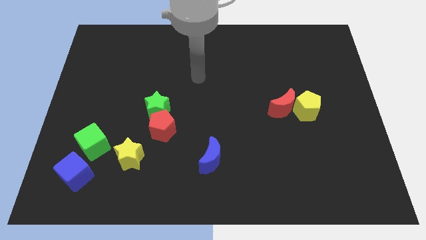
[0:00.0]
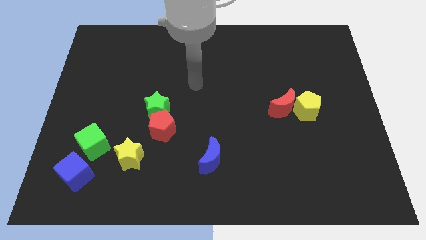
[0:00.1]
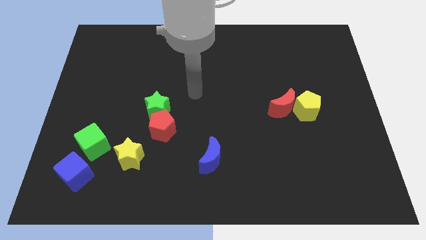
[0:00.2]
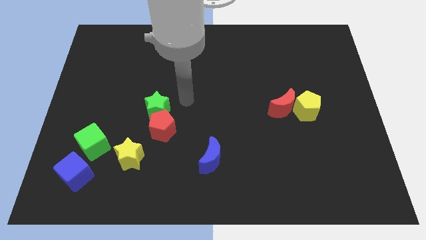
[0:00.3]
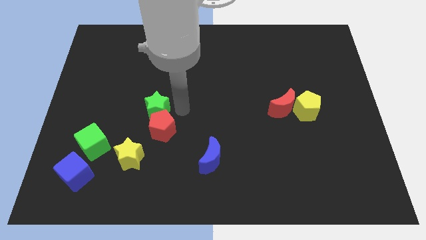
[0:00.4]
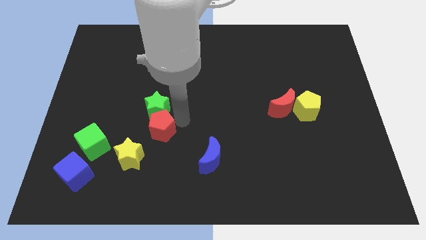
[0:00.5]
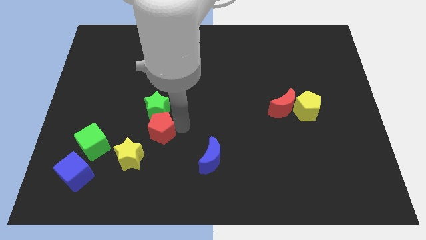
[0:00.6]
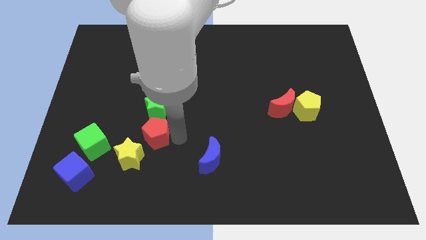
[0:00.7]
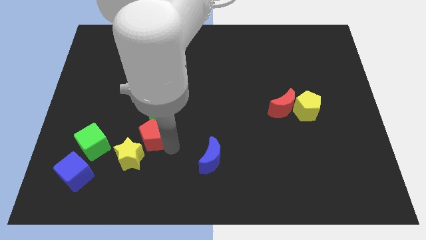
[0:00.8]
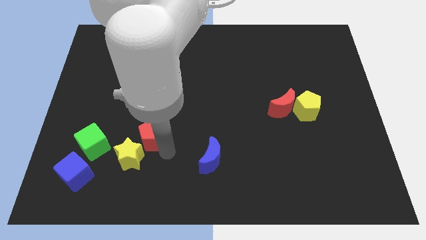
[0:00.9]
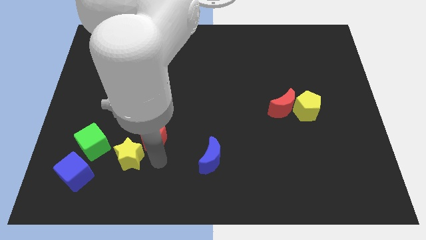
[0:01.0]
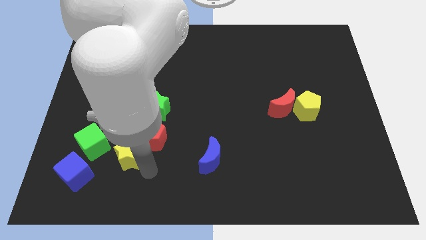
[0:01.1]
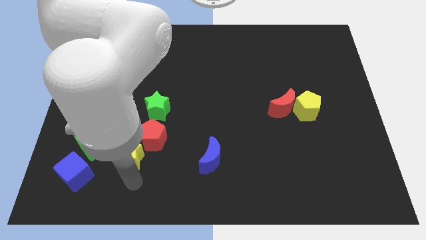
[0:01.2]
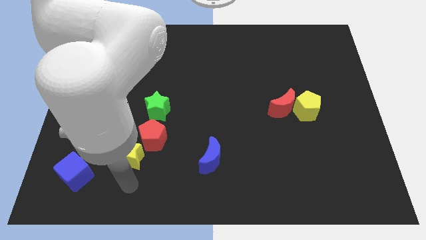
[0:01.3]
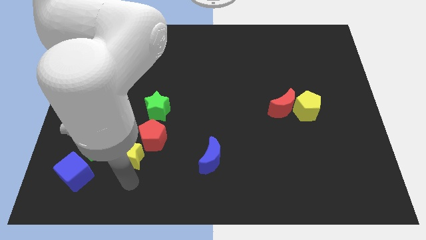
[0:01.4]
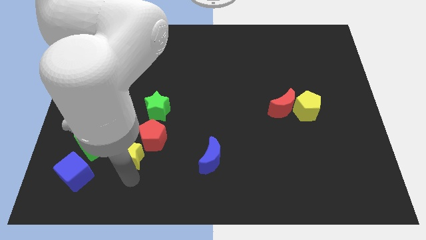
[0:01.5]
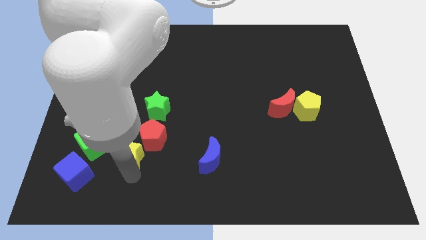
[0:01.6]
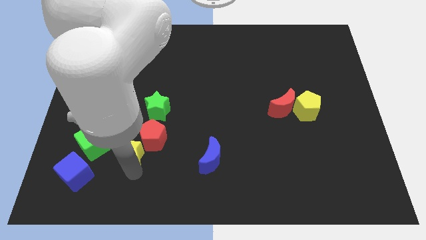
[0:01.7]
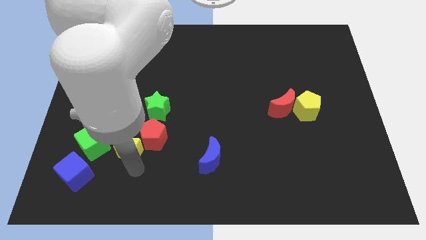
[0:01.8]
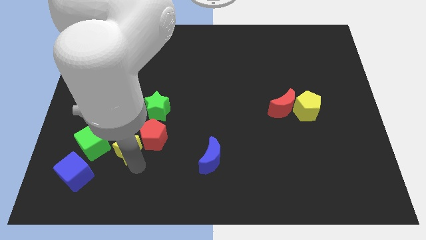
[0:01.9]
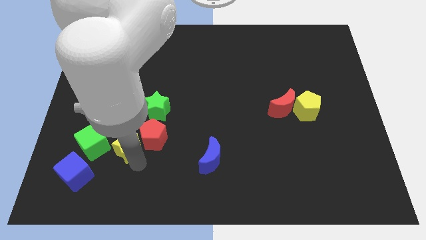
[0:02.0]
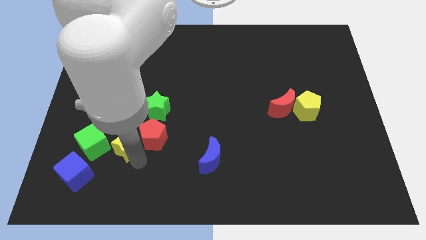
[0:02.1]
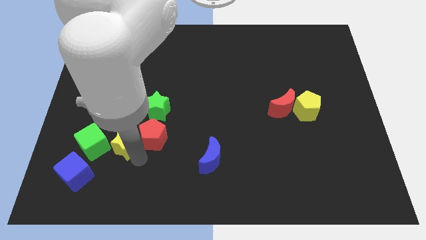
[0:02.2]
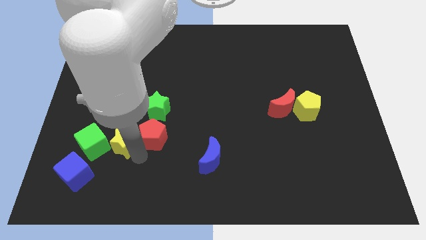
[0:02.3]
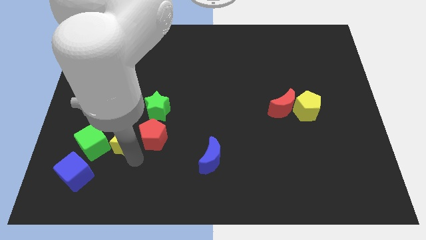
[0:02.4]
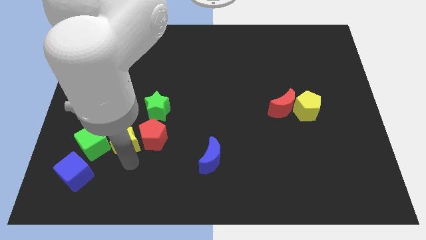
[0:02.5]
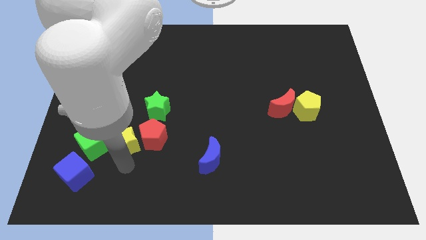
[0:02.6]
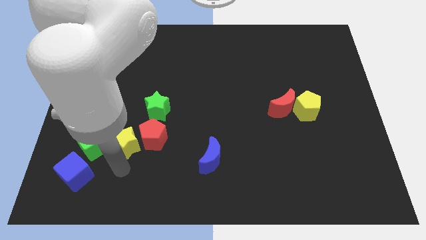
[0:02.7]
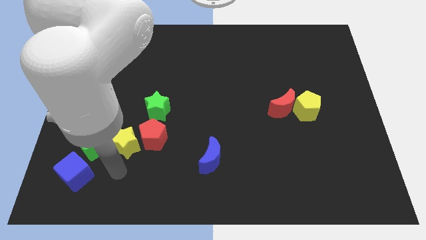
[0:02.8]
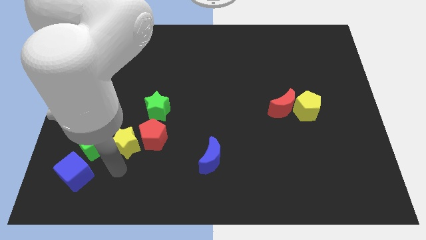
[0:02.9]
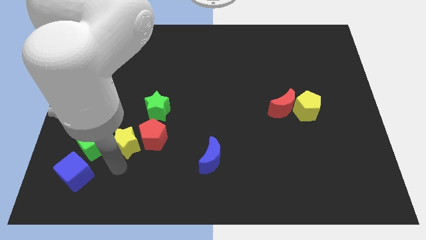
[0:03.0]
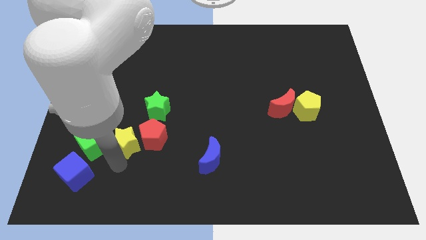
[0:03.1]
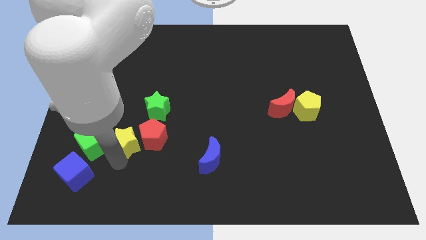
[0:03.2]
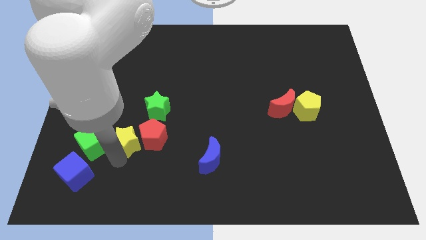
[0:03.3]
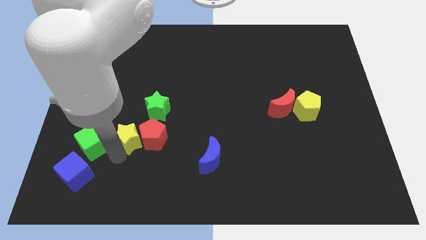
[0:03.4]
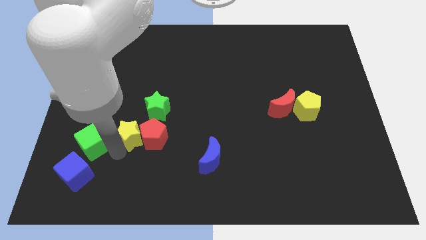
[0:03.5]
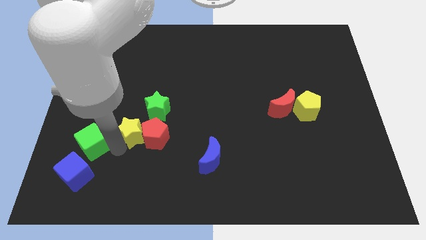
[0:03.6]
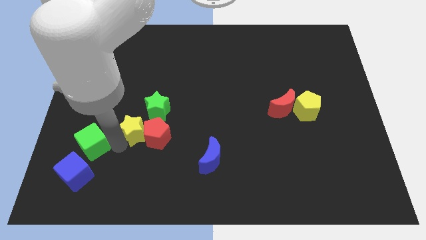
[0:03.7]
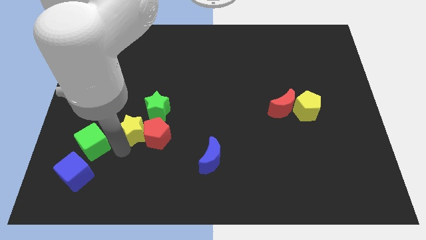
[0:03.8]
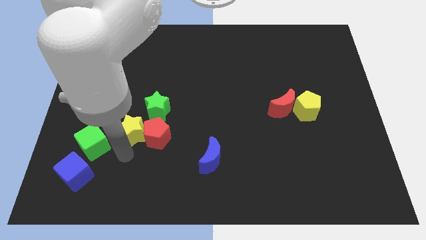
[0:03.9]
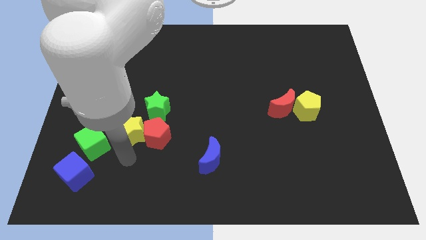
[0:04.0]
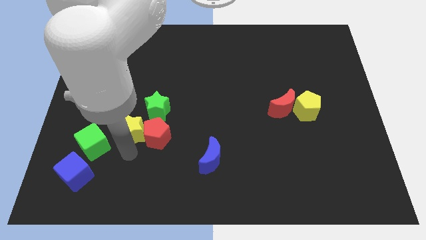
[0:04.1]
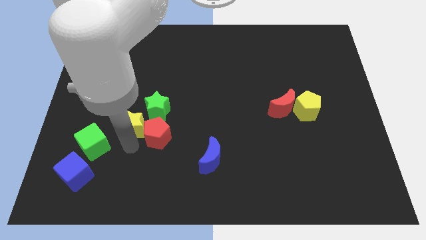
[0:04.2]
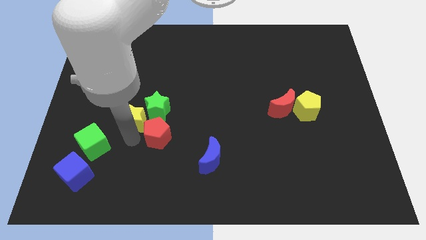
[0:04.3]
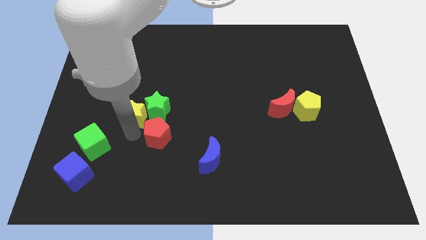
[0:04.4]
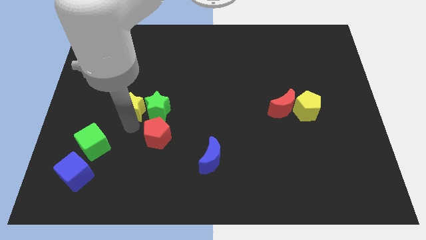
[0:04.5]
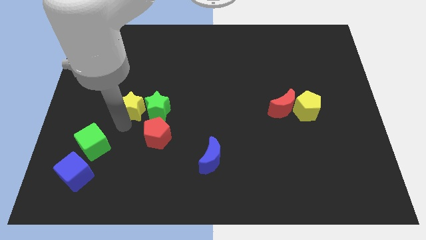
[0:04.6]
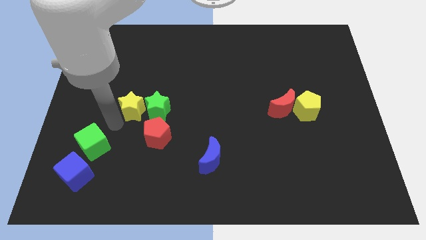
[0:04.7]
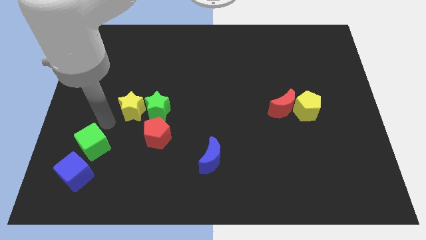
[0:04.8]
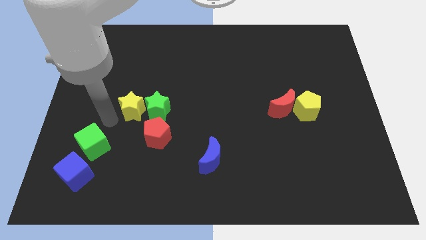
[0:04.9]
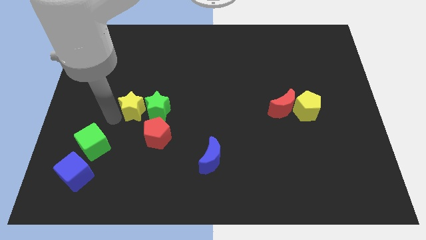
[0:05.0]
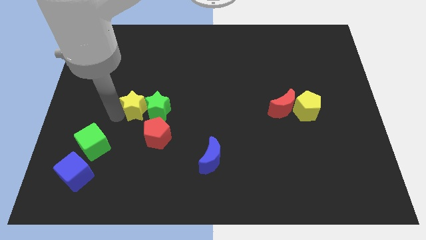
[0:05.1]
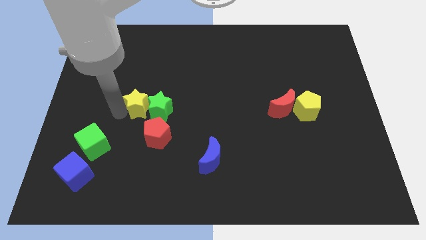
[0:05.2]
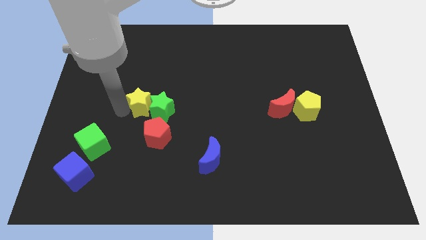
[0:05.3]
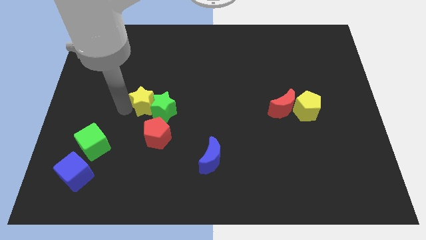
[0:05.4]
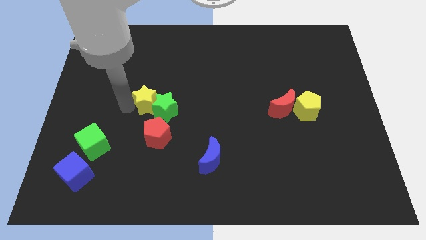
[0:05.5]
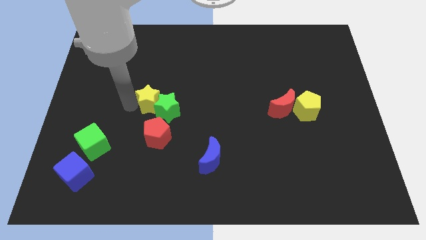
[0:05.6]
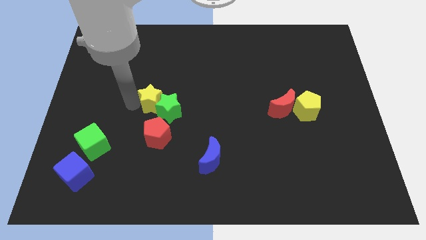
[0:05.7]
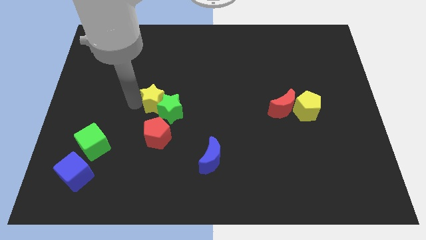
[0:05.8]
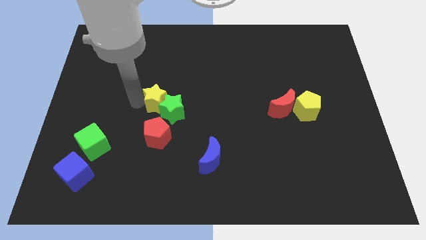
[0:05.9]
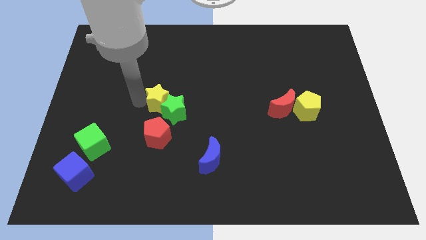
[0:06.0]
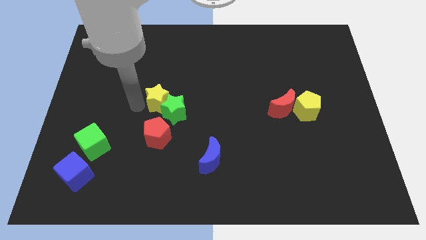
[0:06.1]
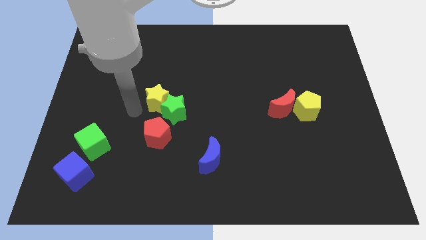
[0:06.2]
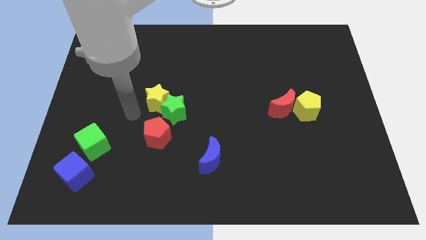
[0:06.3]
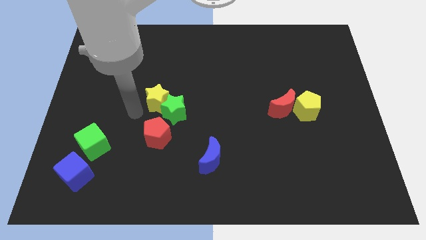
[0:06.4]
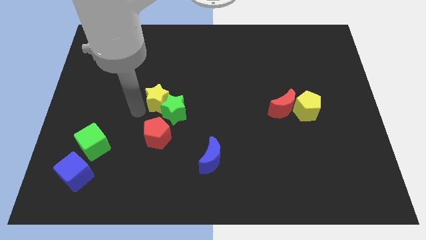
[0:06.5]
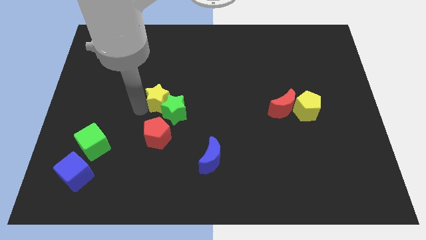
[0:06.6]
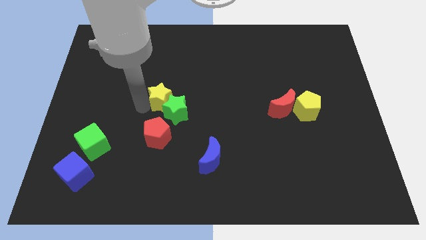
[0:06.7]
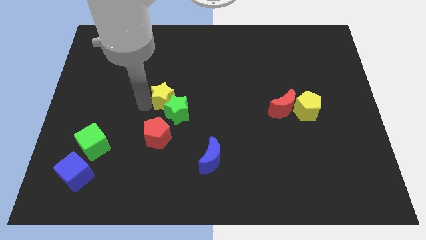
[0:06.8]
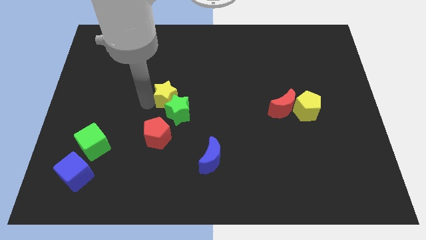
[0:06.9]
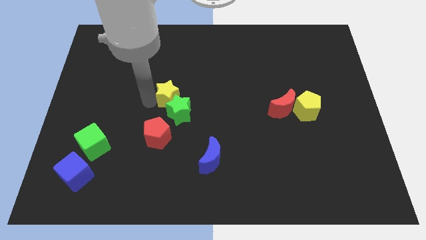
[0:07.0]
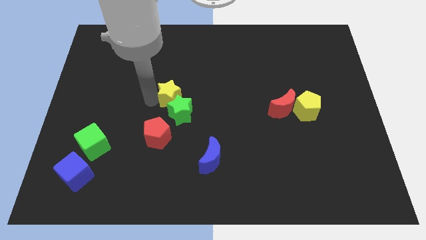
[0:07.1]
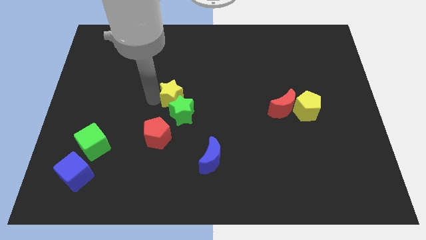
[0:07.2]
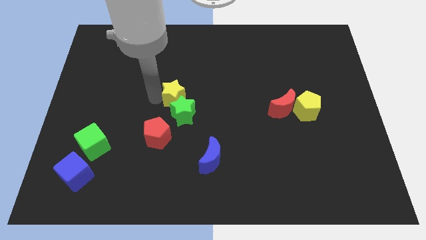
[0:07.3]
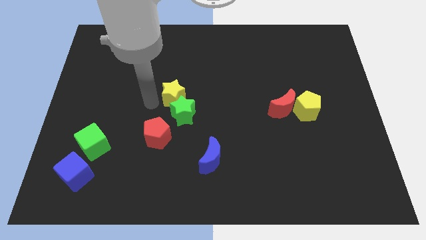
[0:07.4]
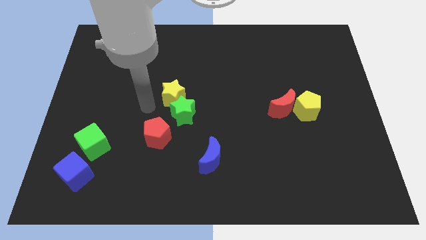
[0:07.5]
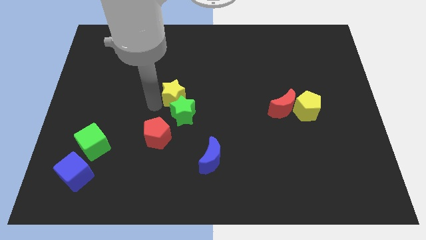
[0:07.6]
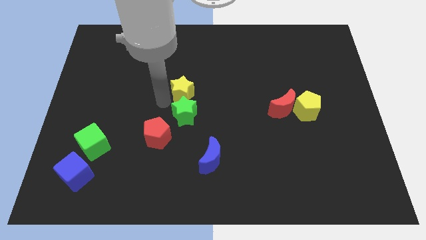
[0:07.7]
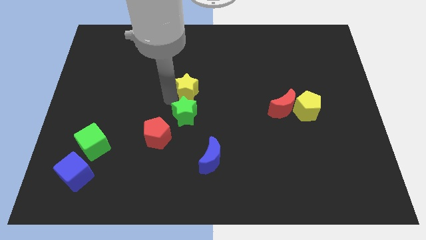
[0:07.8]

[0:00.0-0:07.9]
move the yellow star up and then right

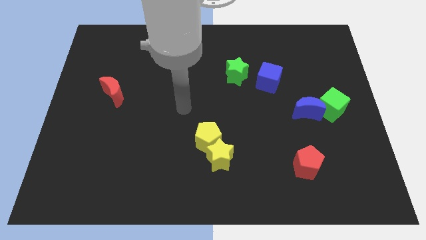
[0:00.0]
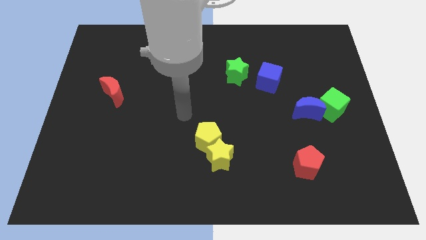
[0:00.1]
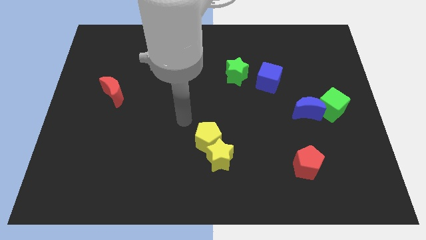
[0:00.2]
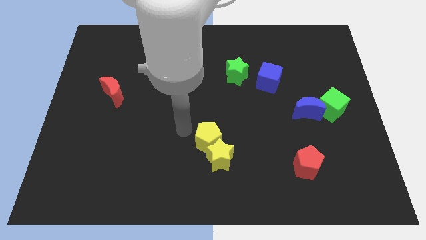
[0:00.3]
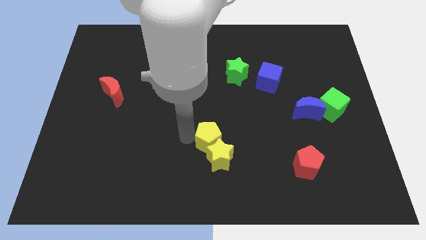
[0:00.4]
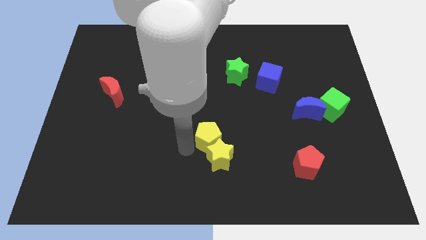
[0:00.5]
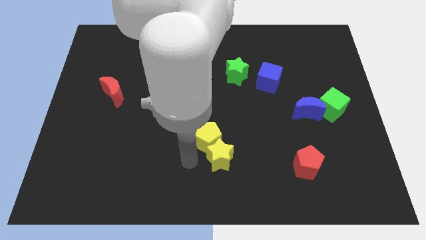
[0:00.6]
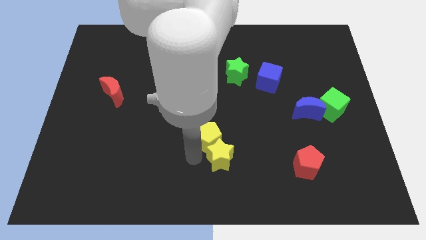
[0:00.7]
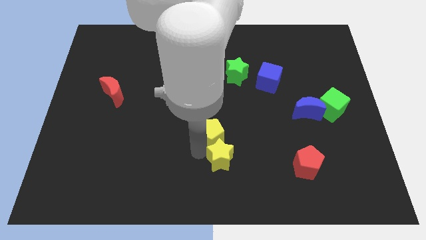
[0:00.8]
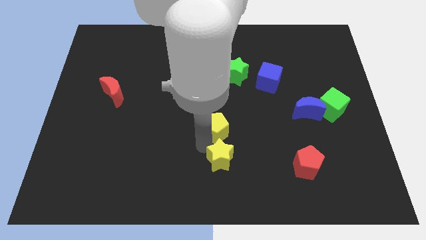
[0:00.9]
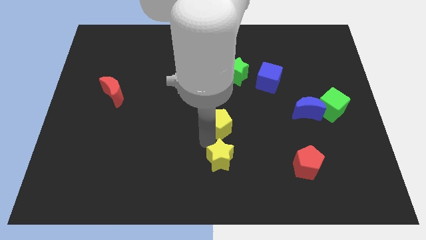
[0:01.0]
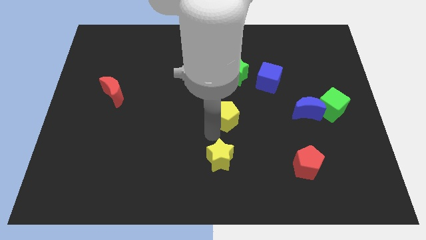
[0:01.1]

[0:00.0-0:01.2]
slightly move the yellow pentagon upwards and to the right diagonally
